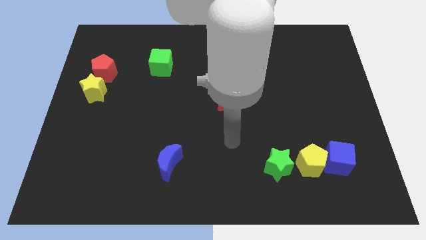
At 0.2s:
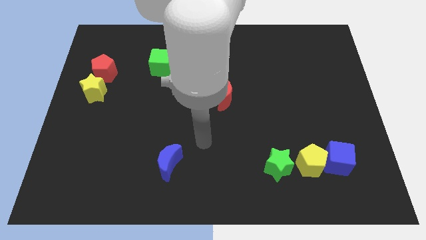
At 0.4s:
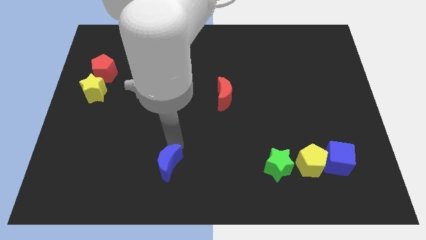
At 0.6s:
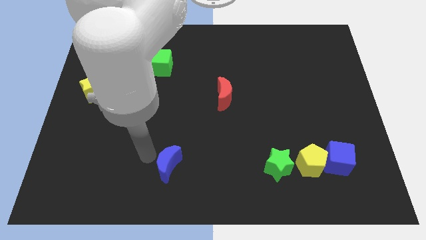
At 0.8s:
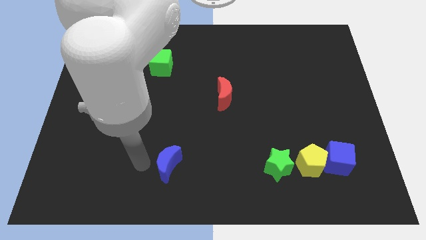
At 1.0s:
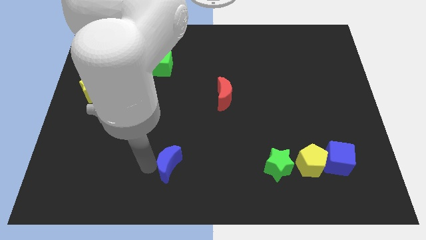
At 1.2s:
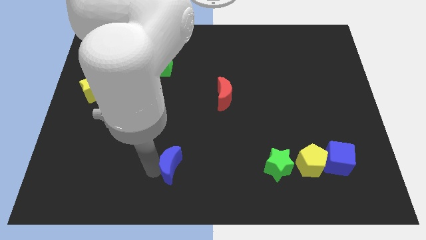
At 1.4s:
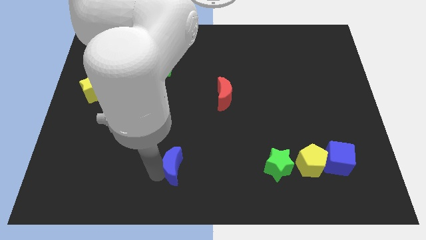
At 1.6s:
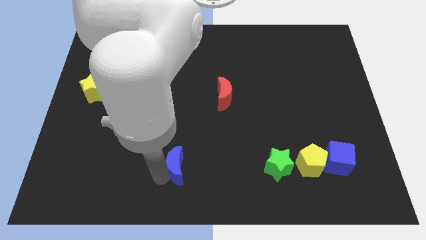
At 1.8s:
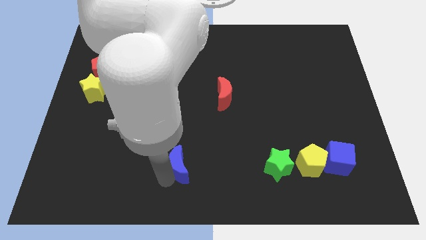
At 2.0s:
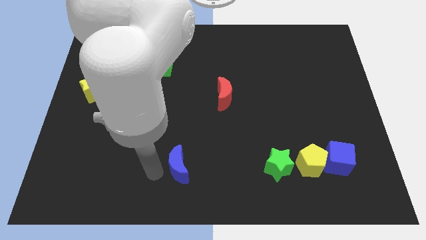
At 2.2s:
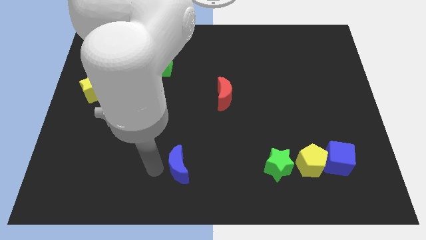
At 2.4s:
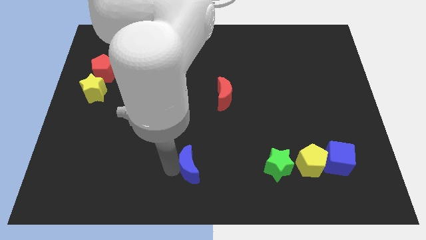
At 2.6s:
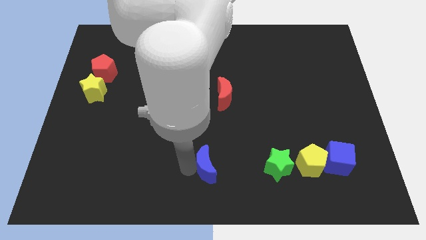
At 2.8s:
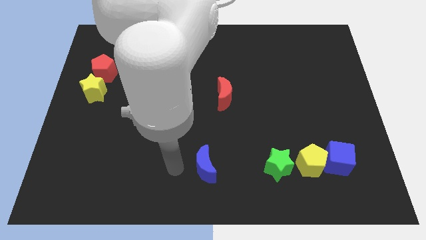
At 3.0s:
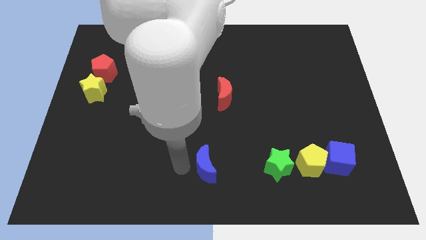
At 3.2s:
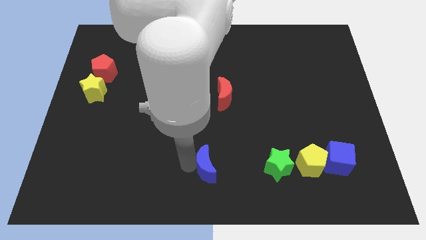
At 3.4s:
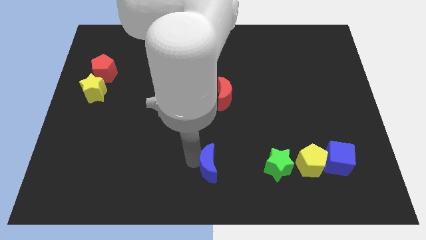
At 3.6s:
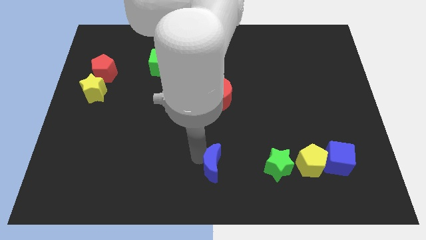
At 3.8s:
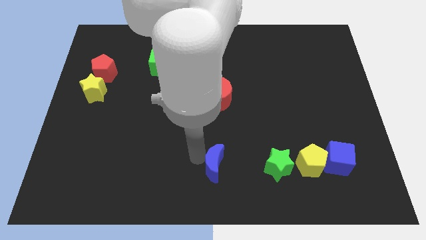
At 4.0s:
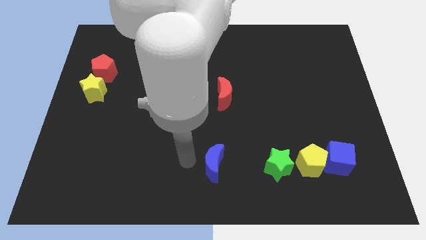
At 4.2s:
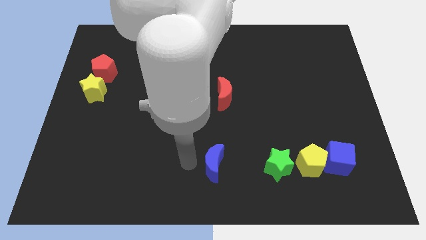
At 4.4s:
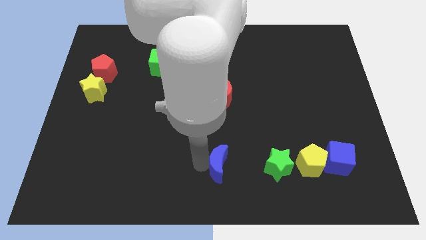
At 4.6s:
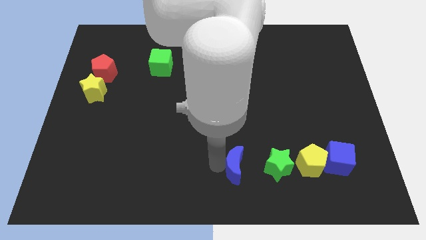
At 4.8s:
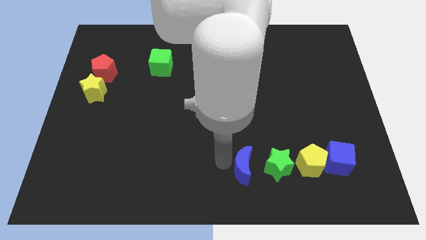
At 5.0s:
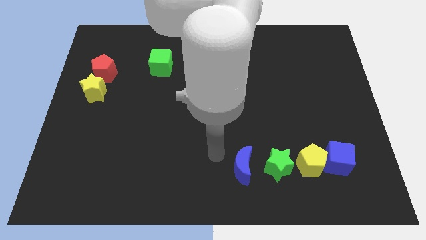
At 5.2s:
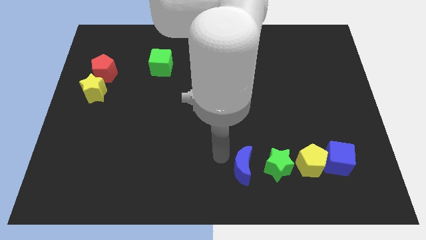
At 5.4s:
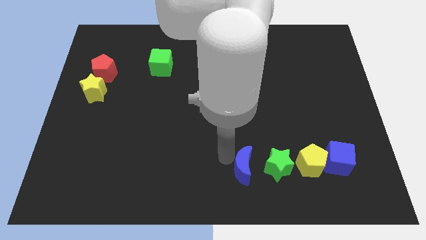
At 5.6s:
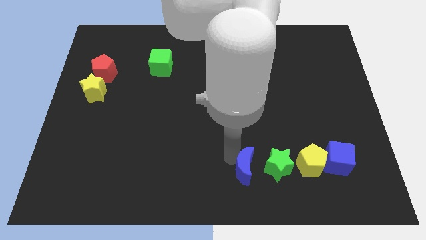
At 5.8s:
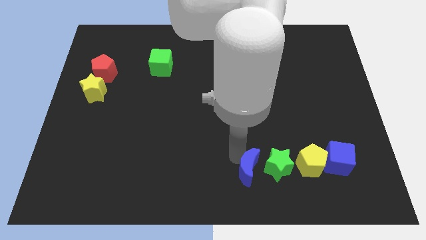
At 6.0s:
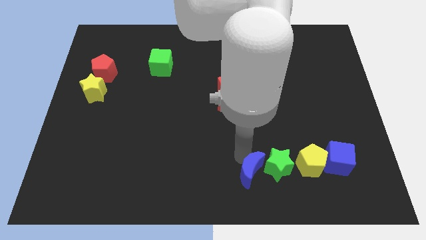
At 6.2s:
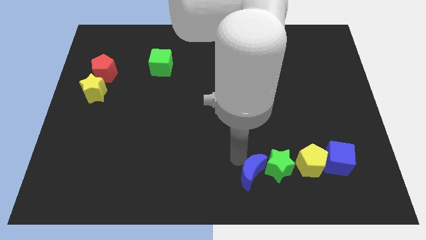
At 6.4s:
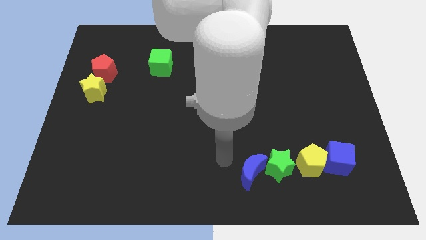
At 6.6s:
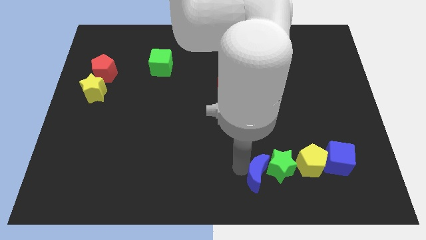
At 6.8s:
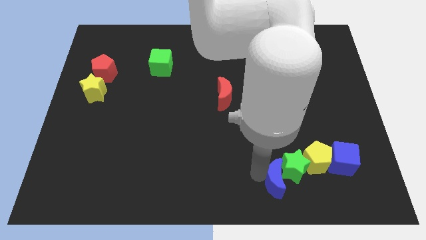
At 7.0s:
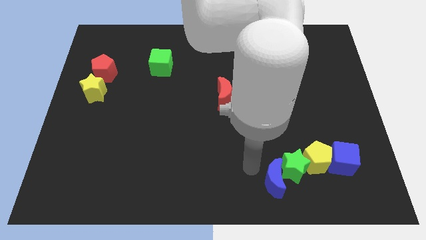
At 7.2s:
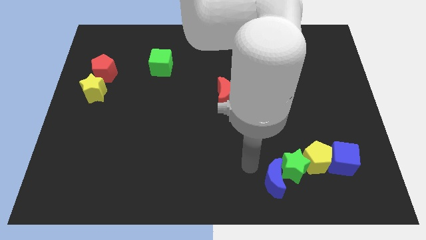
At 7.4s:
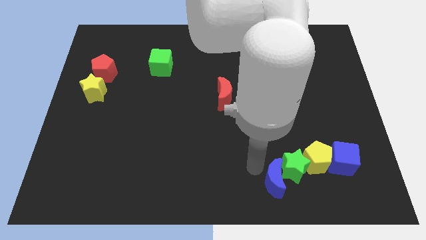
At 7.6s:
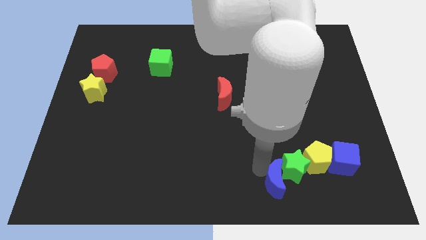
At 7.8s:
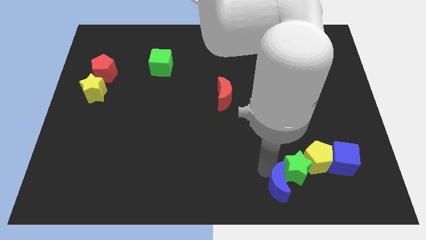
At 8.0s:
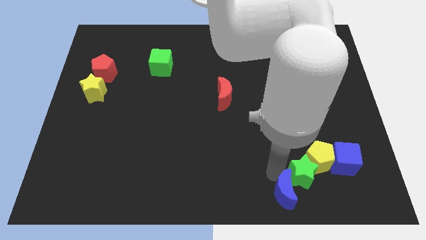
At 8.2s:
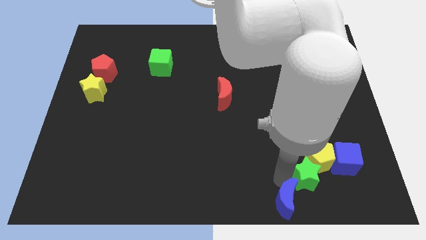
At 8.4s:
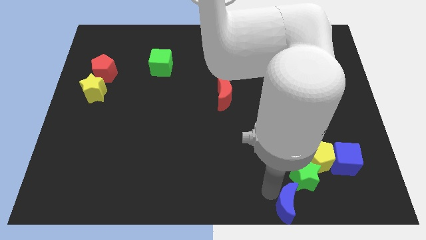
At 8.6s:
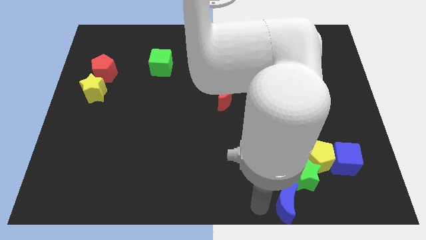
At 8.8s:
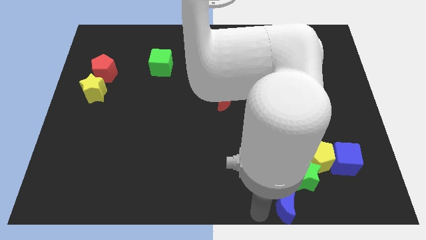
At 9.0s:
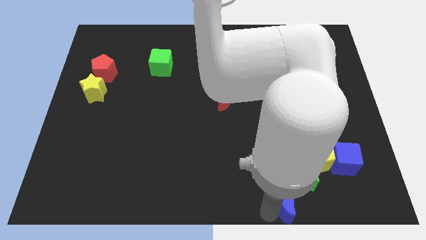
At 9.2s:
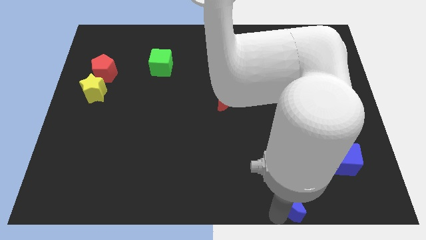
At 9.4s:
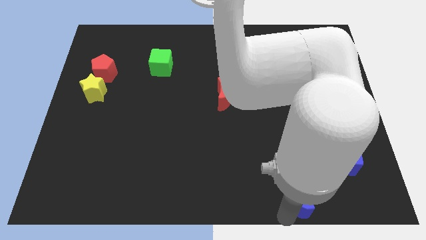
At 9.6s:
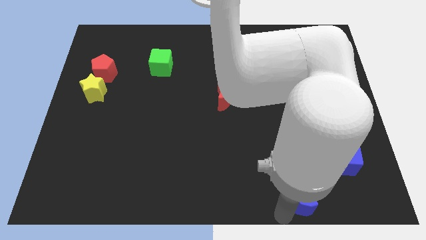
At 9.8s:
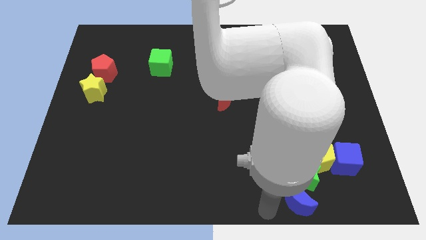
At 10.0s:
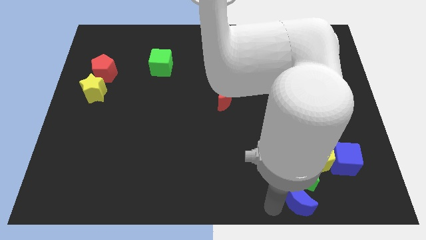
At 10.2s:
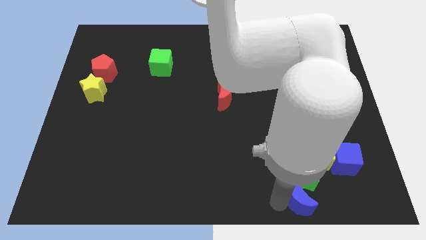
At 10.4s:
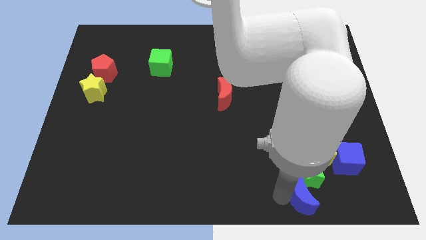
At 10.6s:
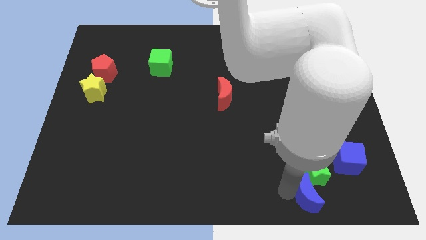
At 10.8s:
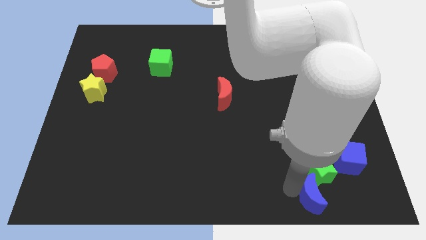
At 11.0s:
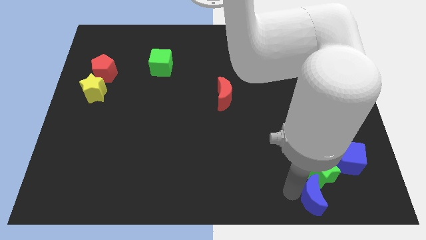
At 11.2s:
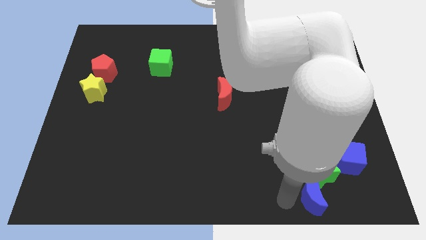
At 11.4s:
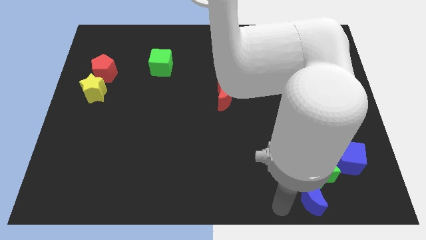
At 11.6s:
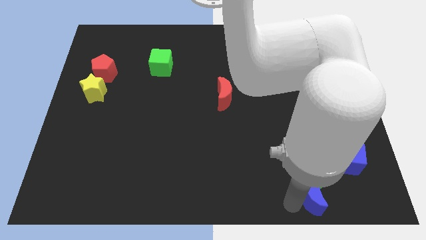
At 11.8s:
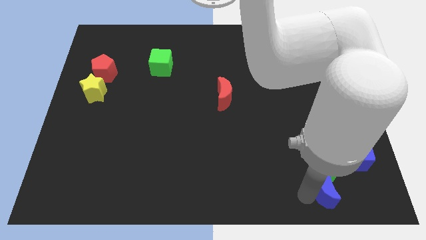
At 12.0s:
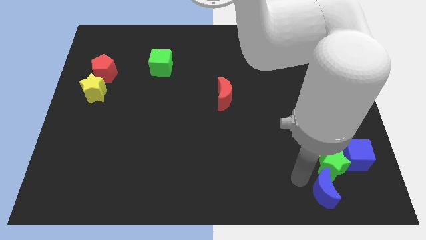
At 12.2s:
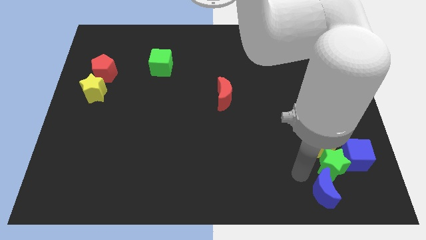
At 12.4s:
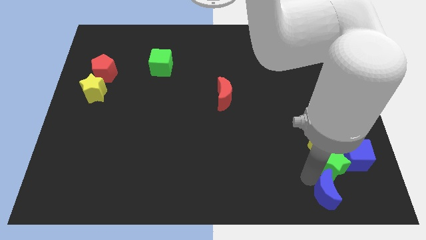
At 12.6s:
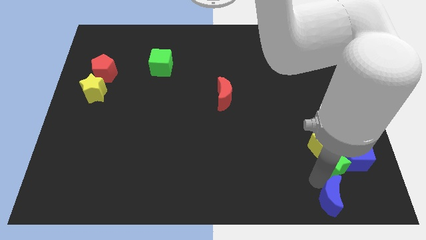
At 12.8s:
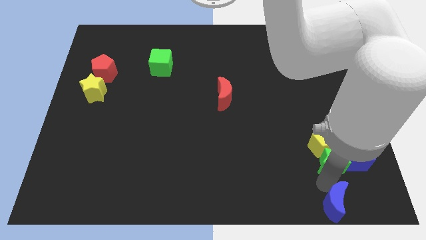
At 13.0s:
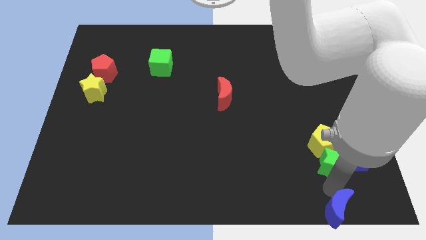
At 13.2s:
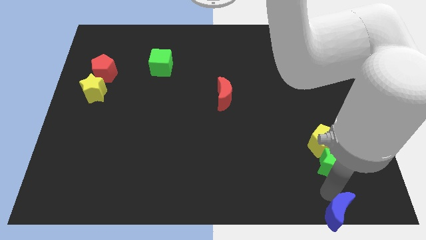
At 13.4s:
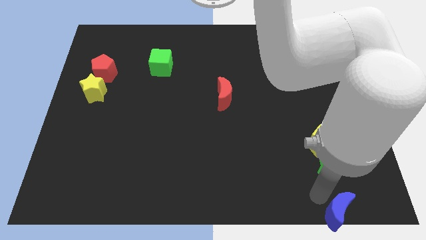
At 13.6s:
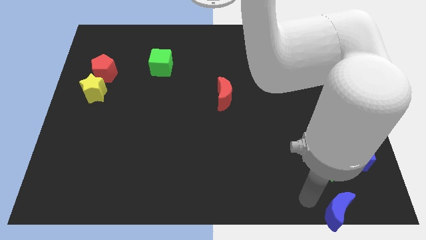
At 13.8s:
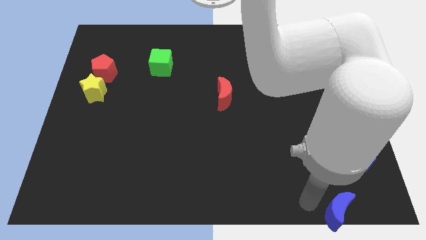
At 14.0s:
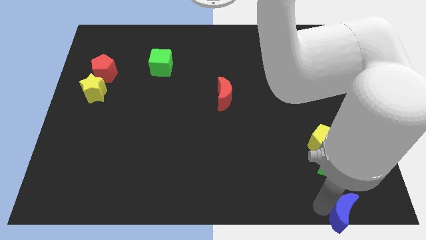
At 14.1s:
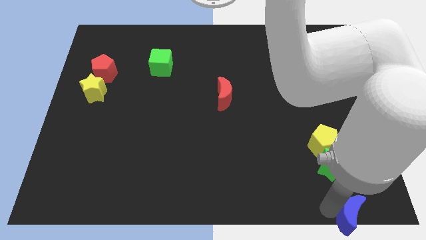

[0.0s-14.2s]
put the blue moon to the bottom right corner
